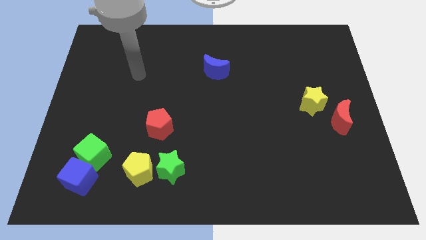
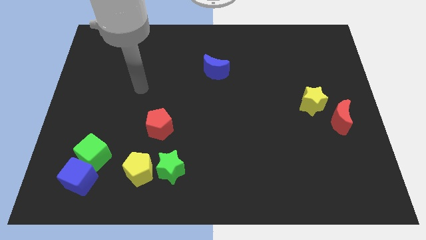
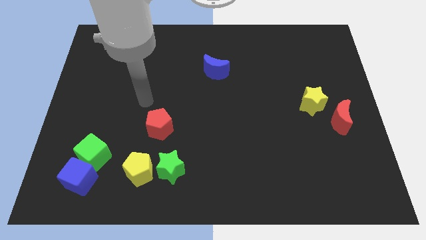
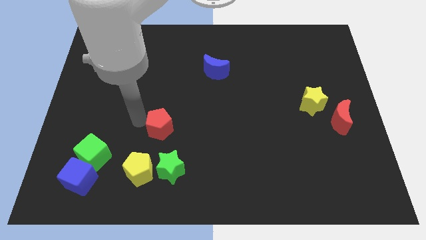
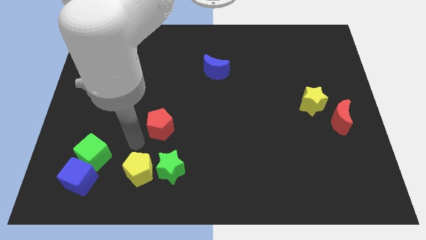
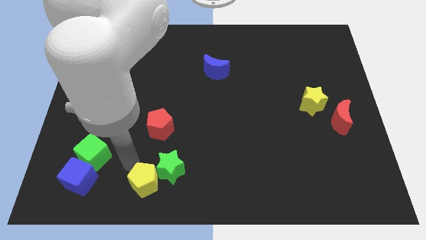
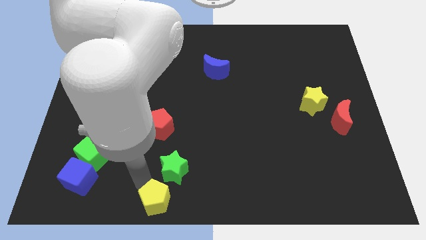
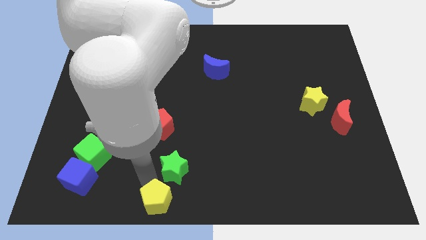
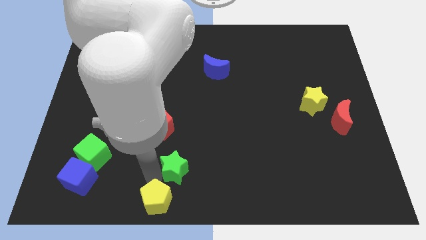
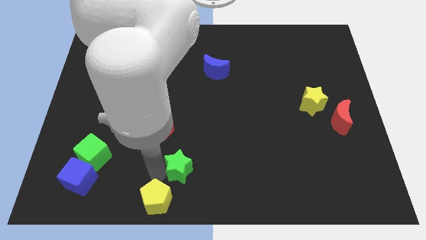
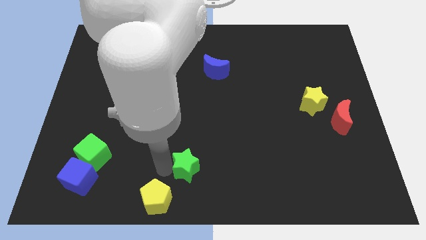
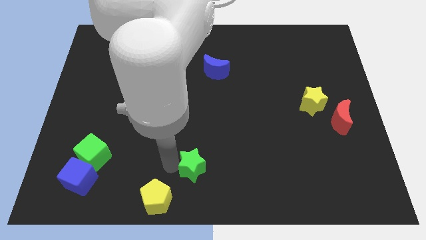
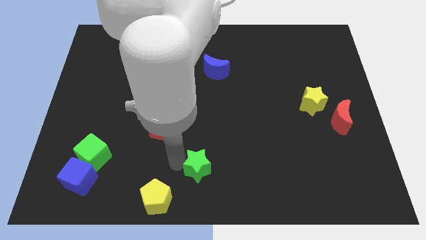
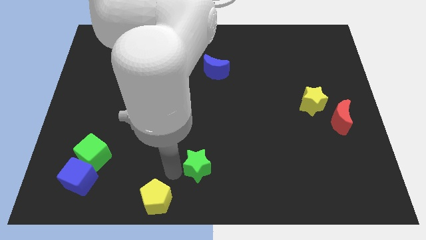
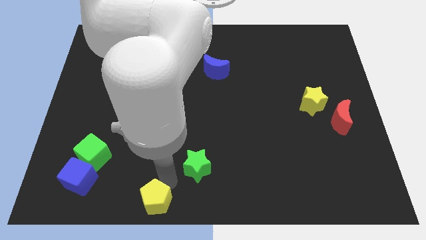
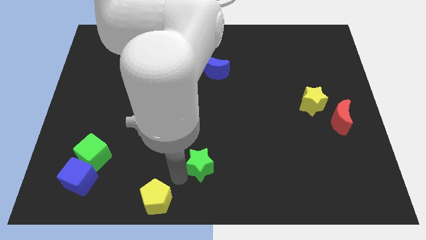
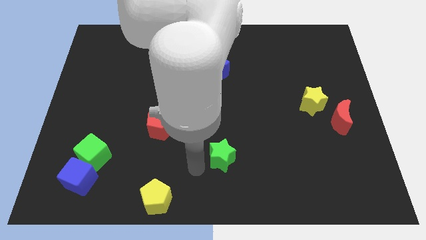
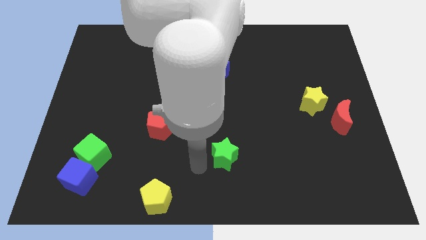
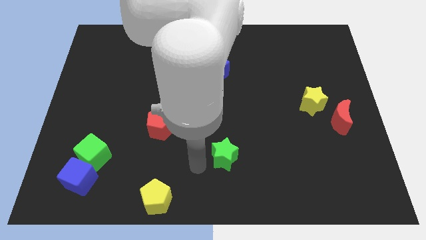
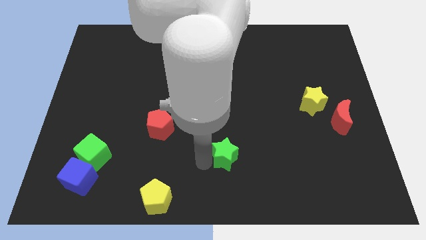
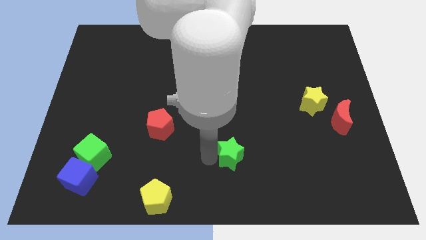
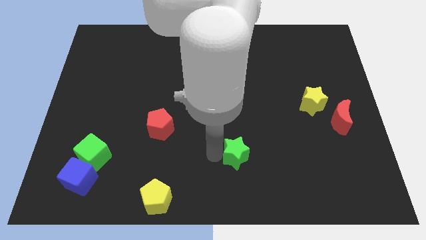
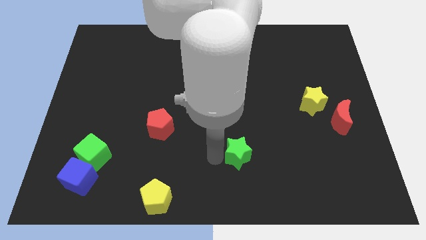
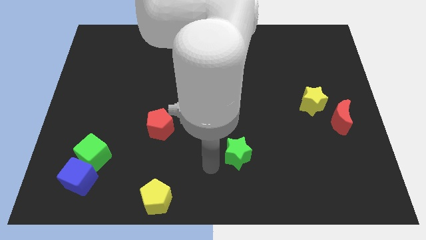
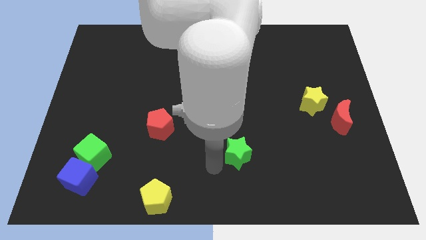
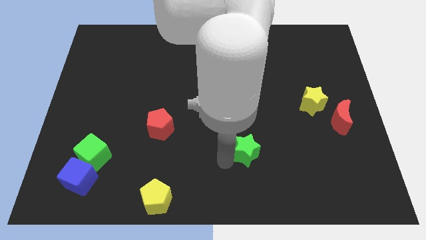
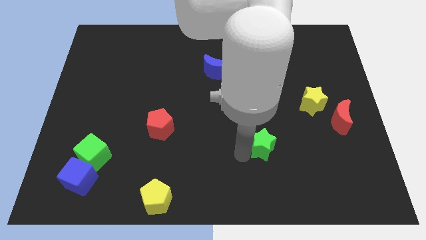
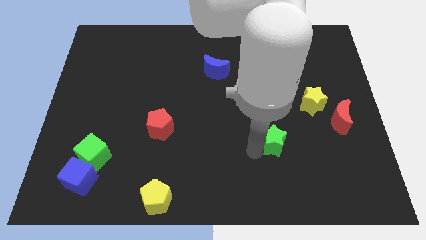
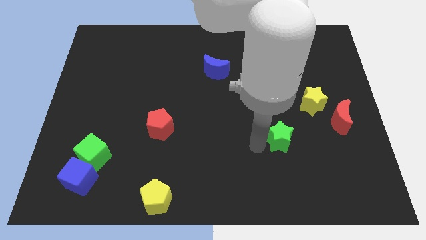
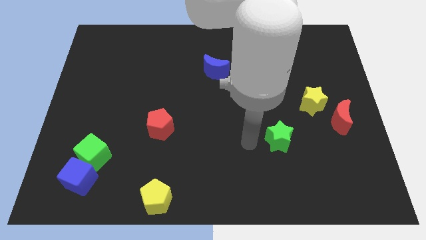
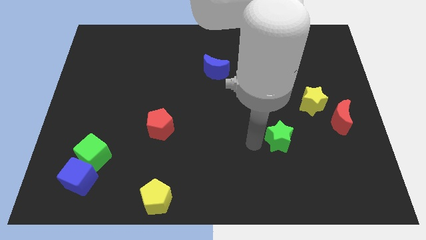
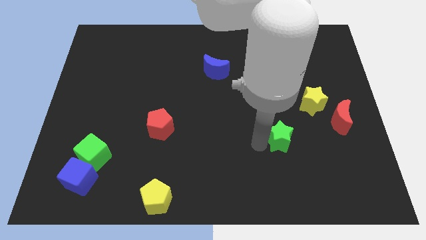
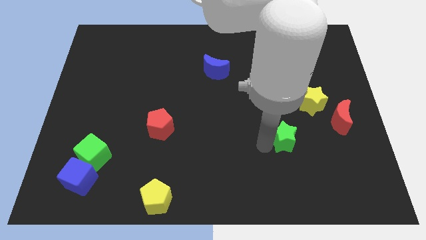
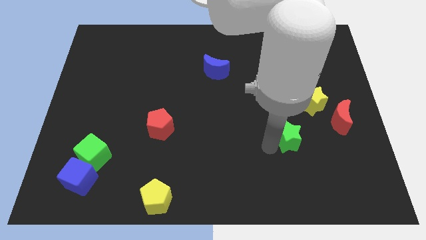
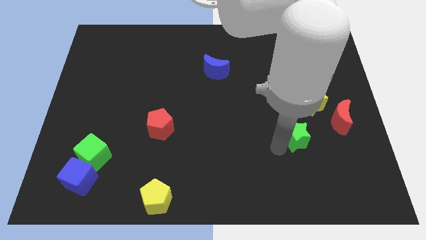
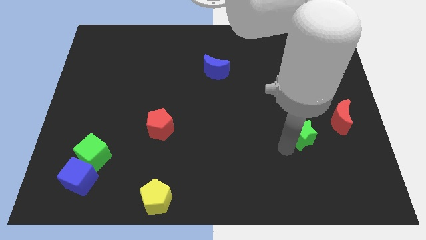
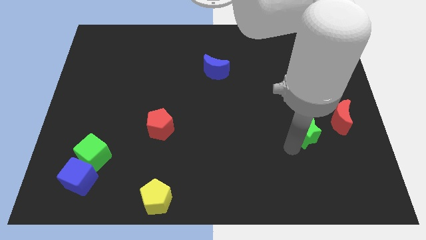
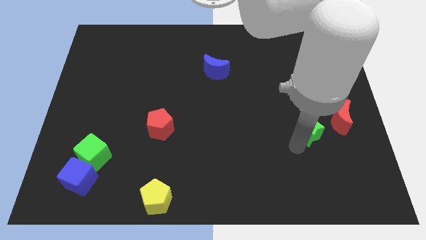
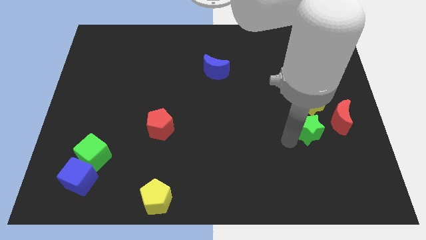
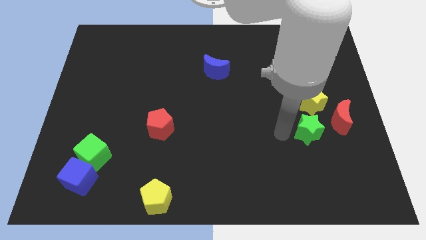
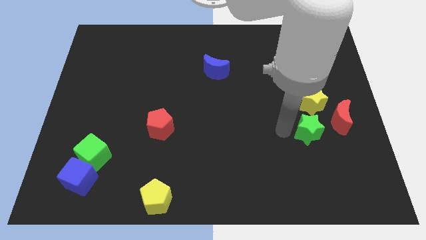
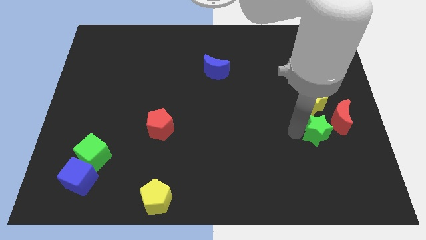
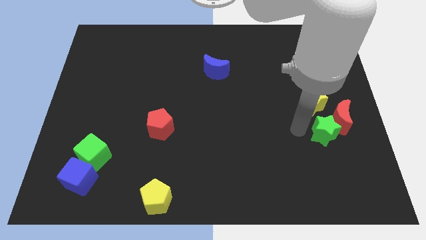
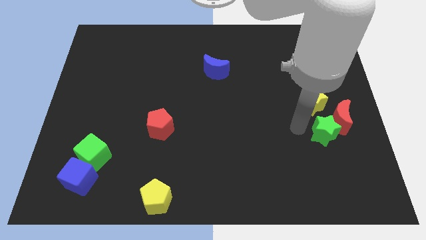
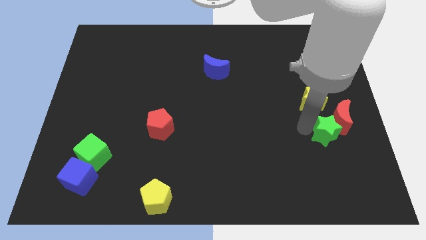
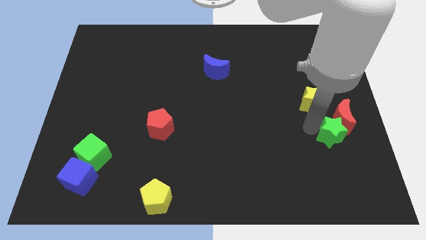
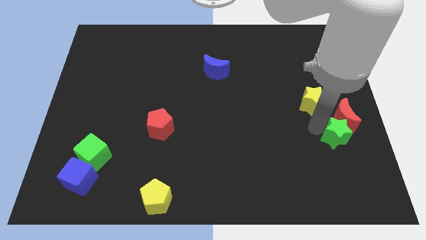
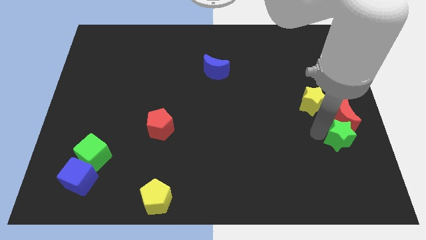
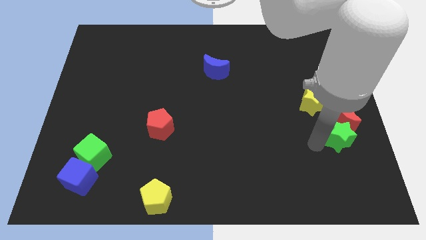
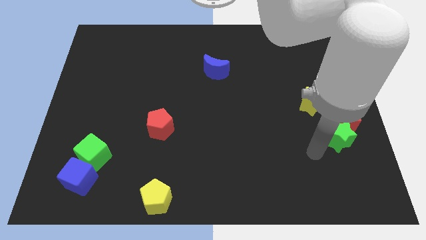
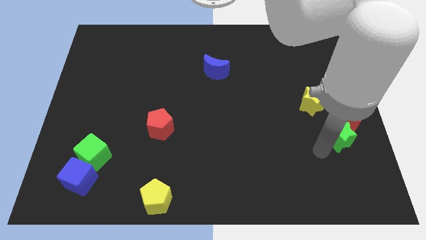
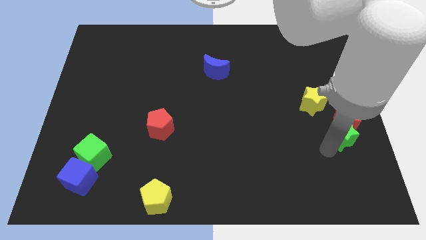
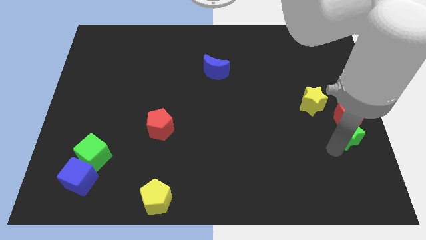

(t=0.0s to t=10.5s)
put the green star to the right side of the board

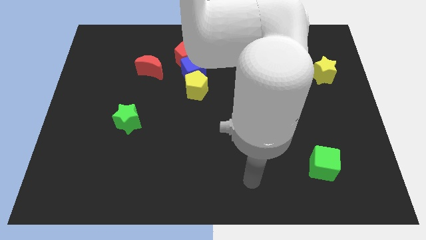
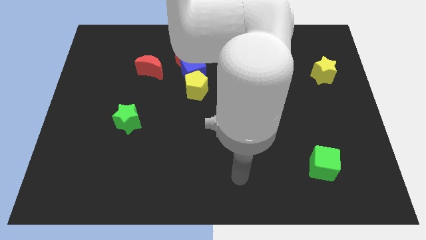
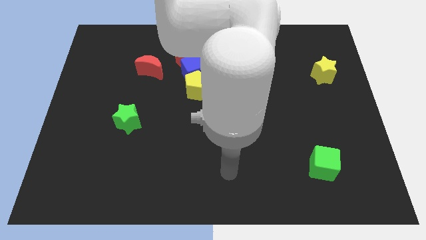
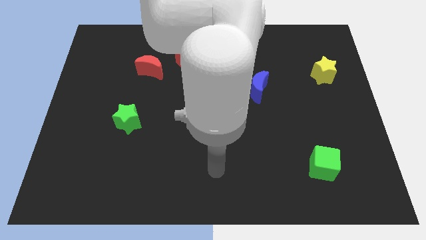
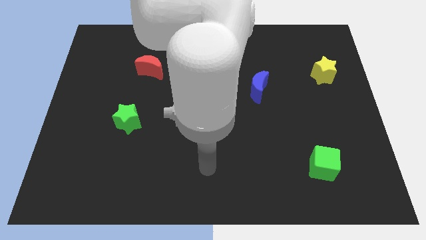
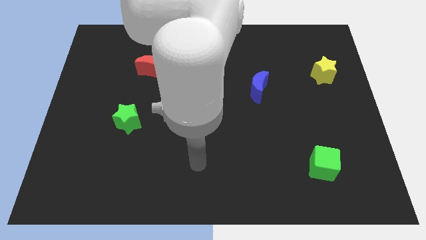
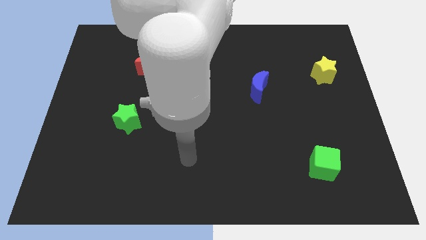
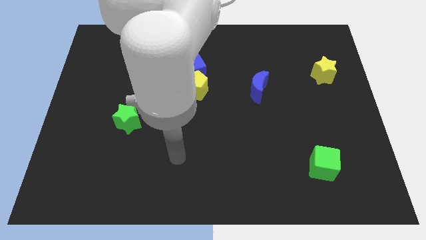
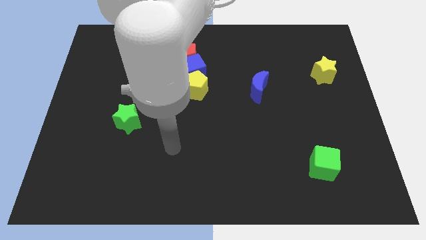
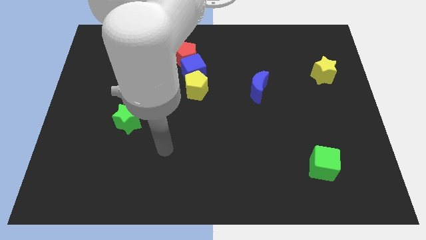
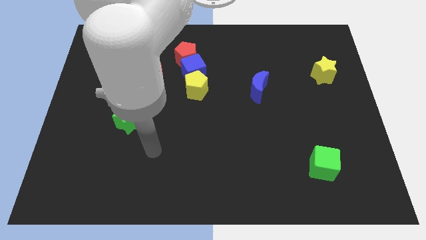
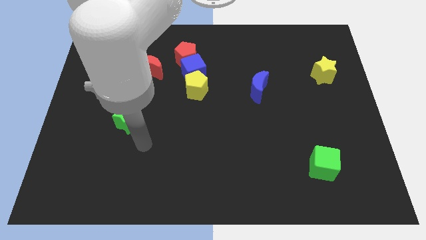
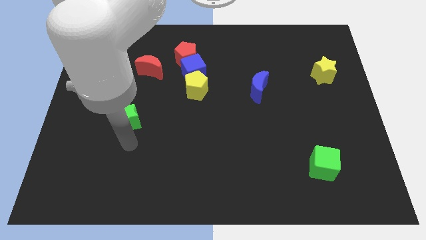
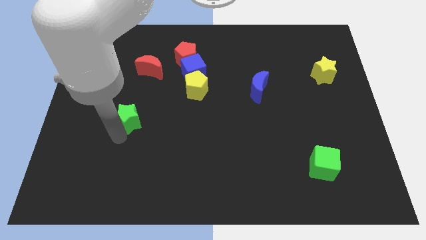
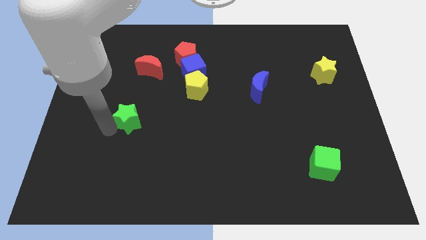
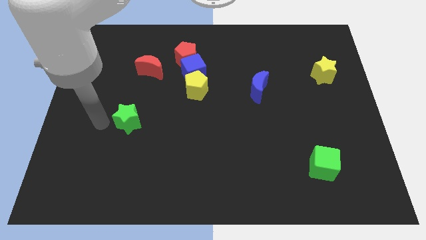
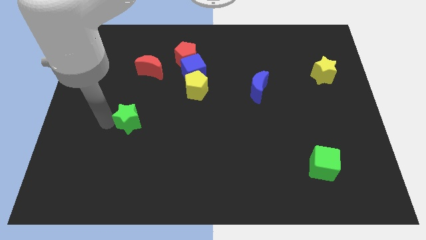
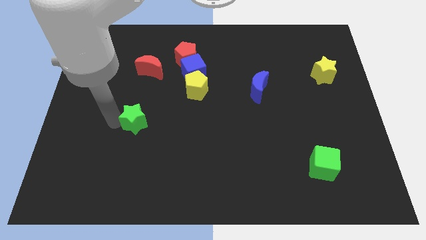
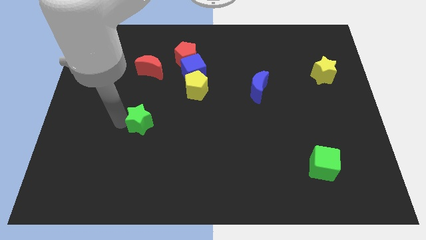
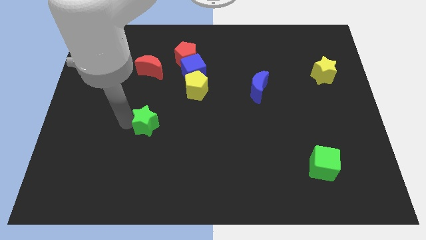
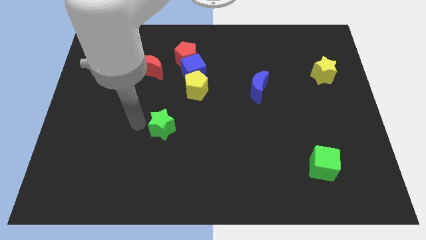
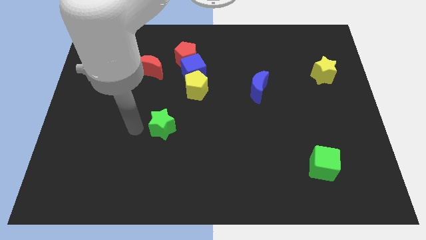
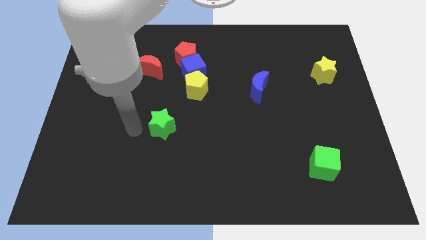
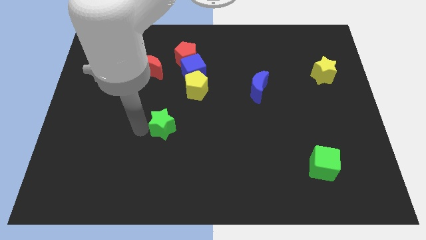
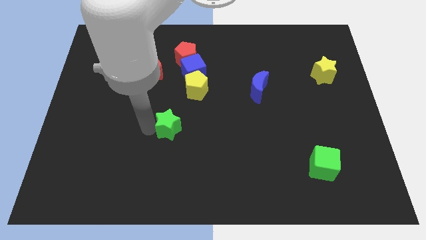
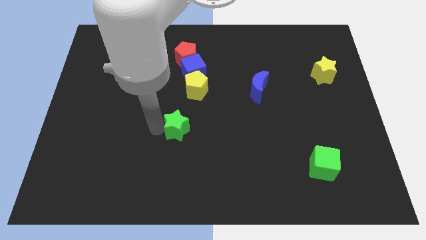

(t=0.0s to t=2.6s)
push the green star to the middle
